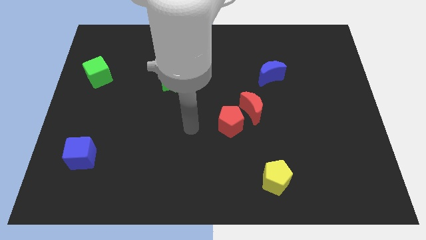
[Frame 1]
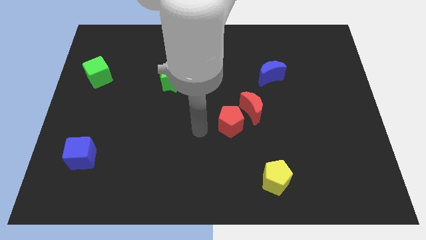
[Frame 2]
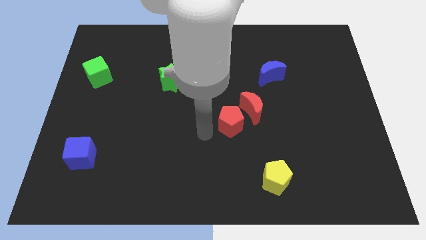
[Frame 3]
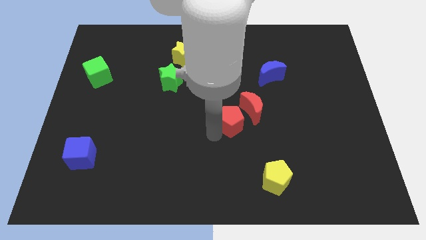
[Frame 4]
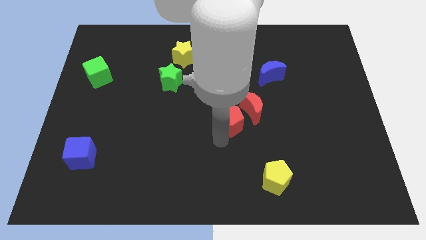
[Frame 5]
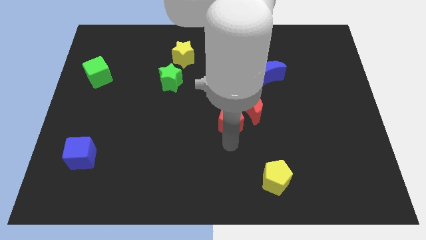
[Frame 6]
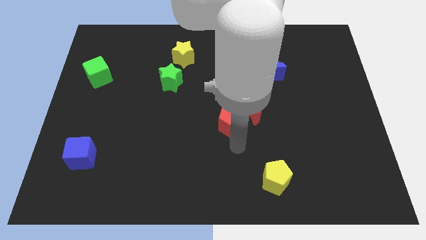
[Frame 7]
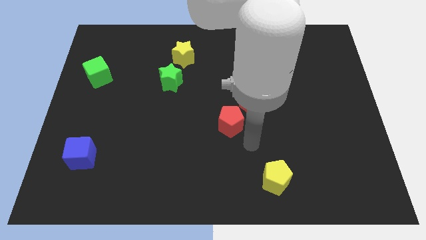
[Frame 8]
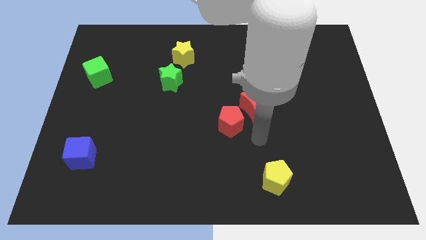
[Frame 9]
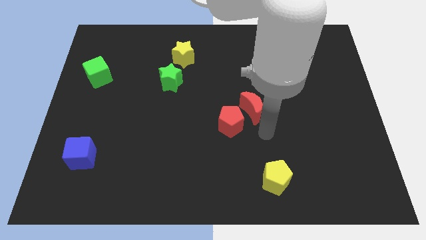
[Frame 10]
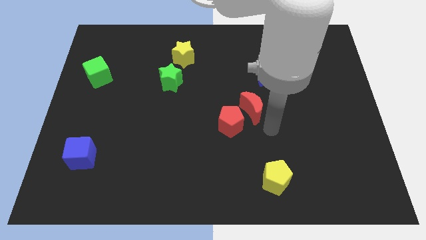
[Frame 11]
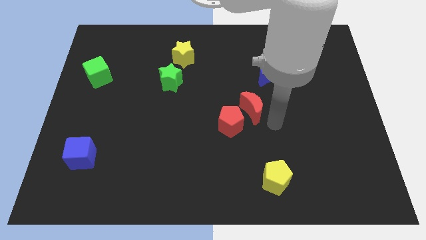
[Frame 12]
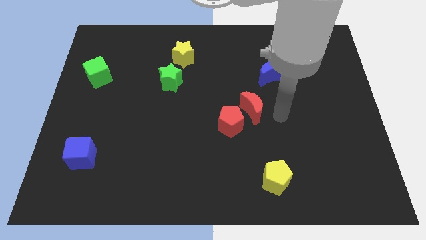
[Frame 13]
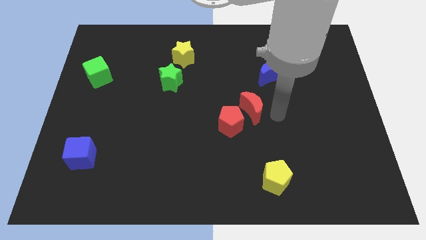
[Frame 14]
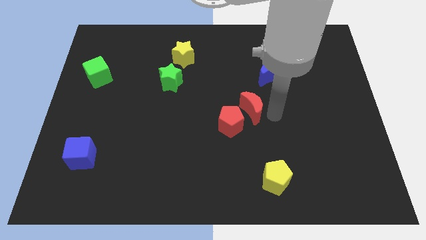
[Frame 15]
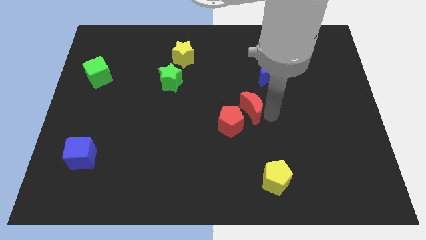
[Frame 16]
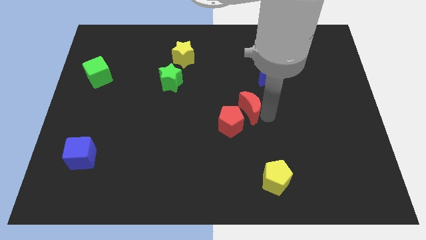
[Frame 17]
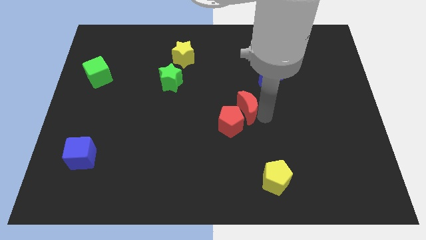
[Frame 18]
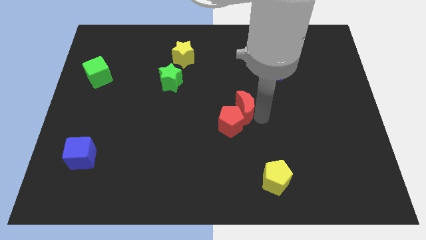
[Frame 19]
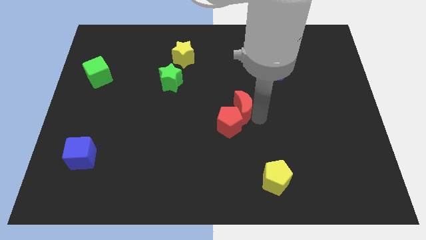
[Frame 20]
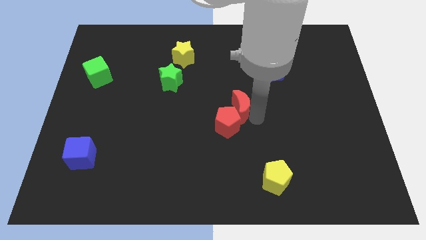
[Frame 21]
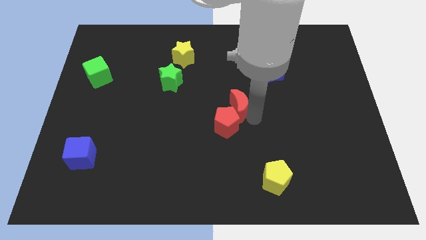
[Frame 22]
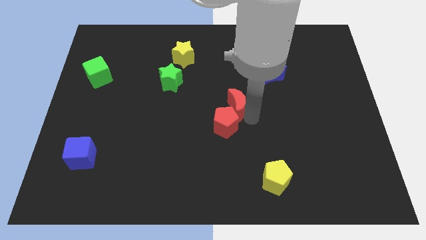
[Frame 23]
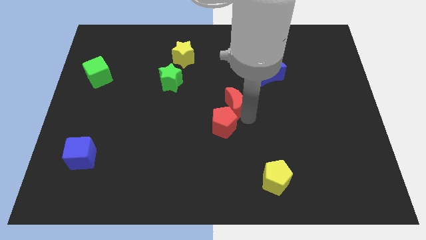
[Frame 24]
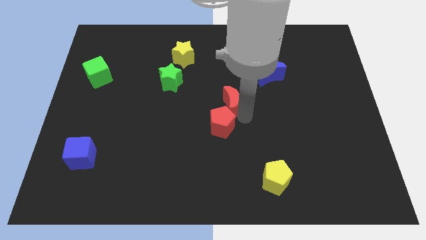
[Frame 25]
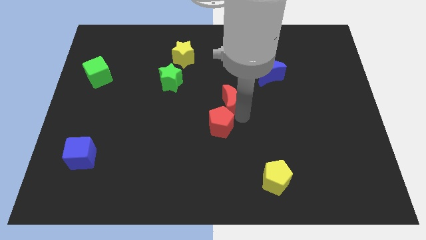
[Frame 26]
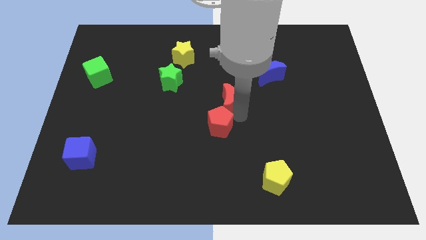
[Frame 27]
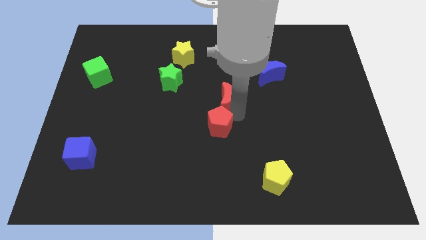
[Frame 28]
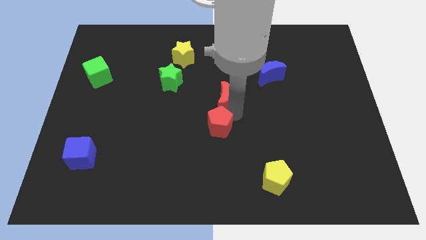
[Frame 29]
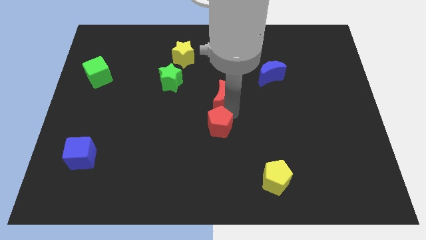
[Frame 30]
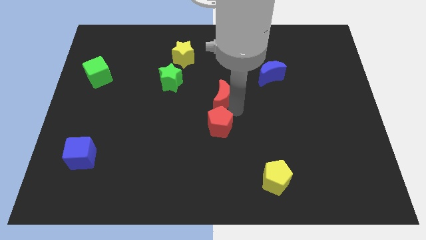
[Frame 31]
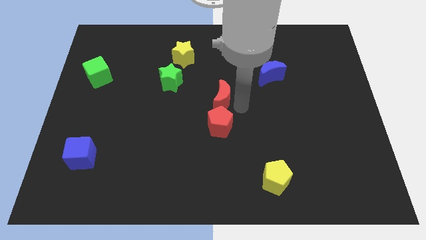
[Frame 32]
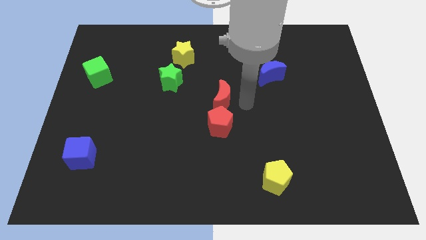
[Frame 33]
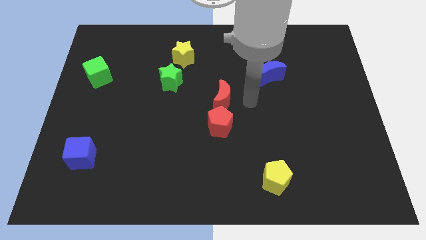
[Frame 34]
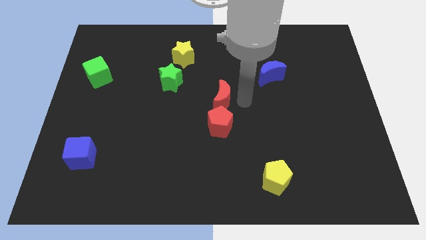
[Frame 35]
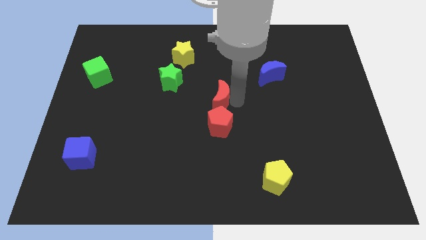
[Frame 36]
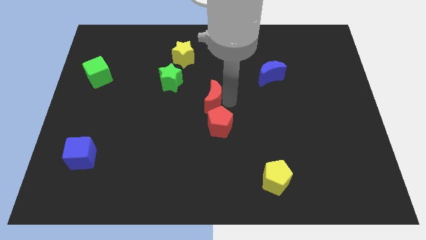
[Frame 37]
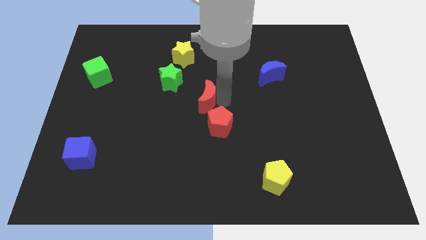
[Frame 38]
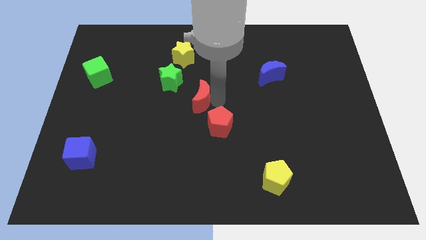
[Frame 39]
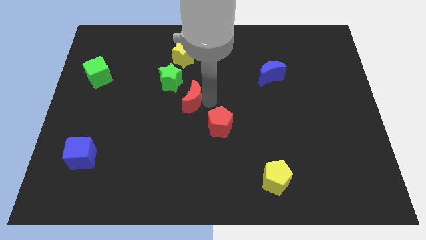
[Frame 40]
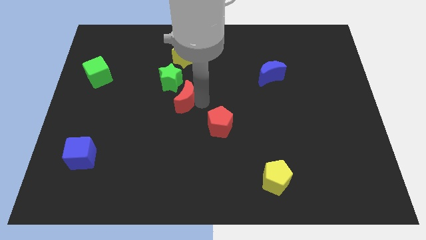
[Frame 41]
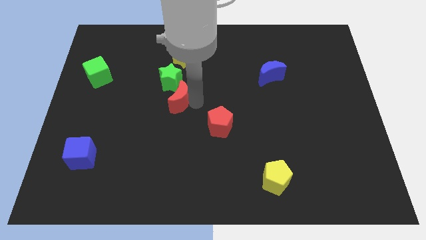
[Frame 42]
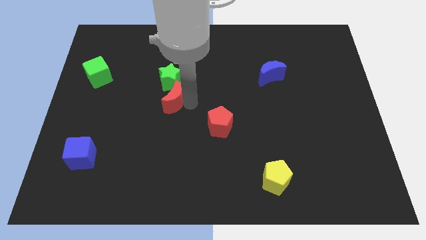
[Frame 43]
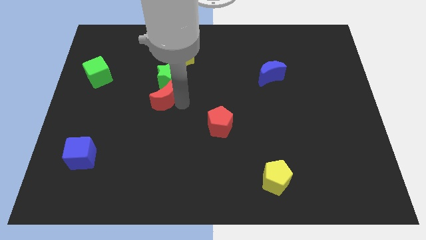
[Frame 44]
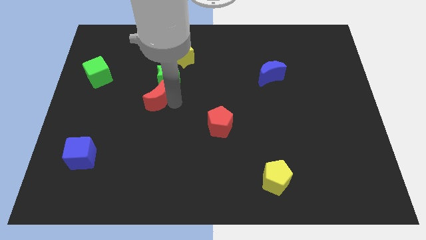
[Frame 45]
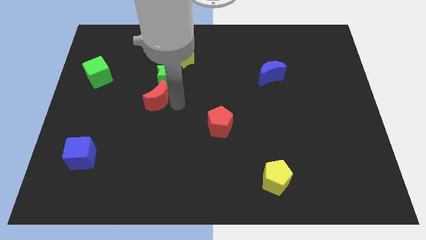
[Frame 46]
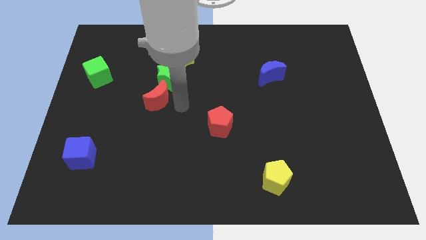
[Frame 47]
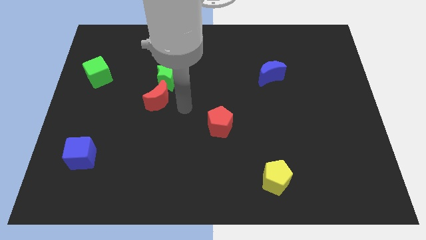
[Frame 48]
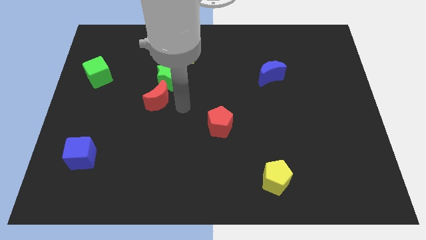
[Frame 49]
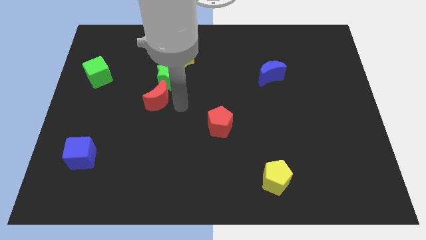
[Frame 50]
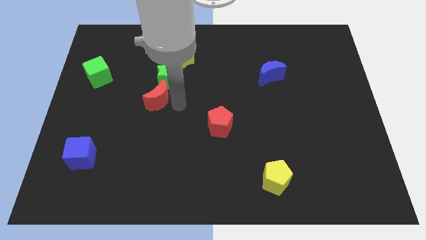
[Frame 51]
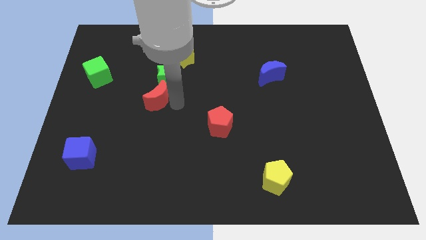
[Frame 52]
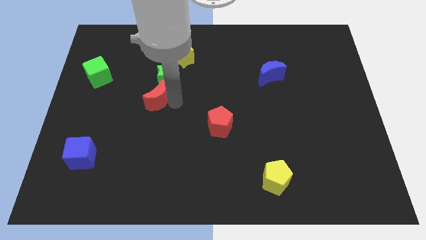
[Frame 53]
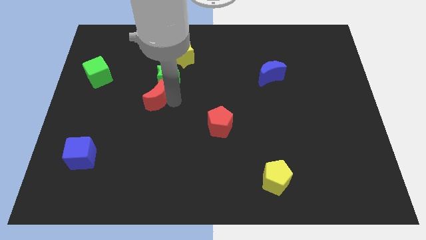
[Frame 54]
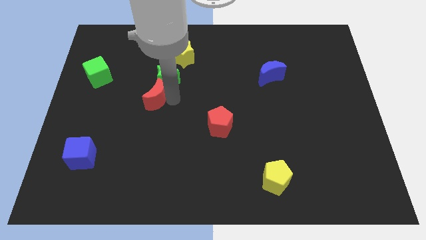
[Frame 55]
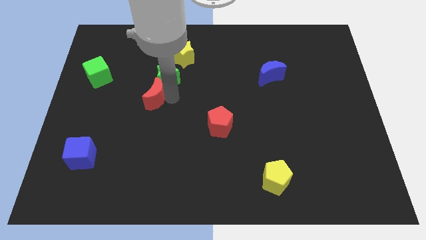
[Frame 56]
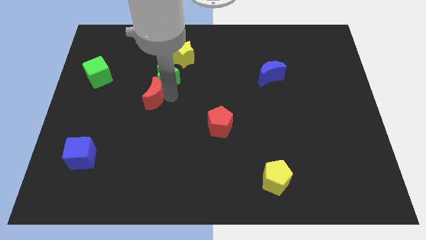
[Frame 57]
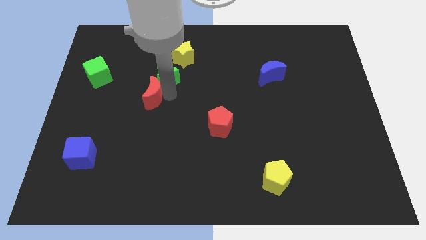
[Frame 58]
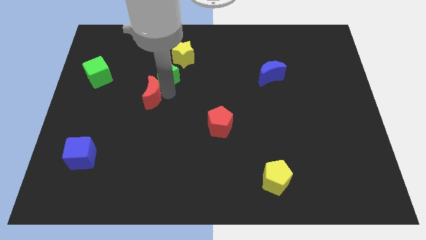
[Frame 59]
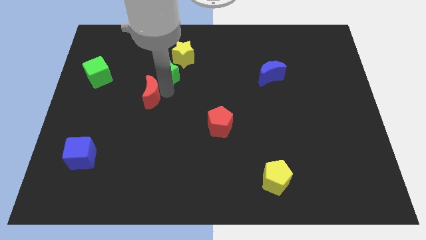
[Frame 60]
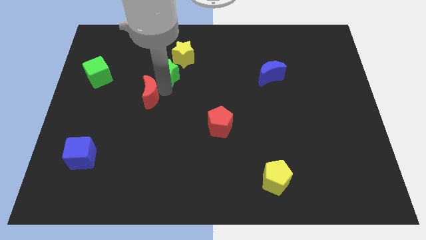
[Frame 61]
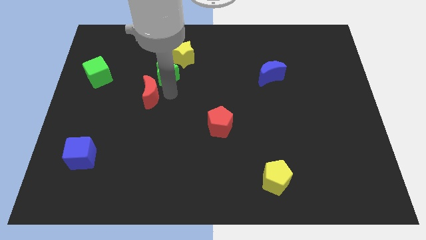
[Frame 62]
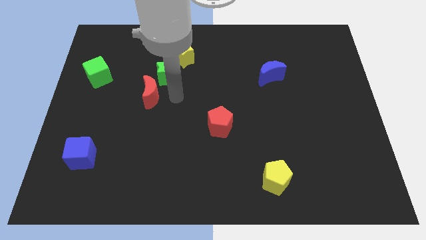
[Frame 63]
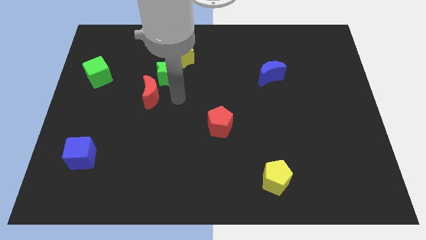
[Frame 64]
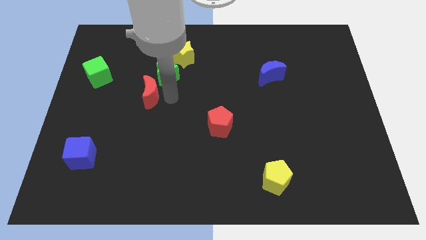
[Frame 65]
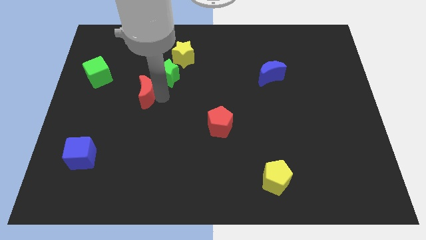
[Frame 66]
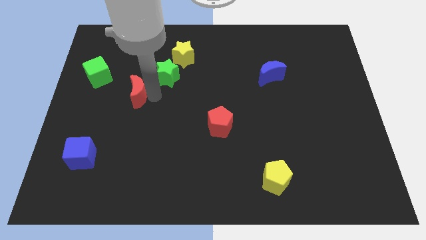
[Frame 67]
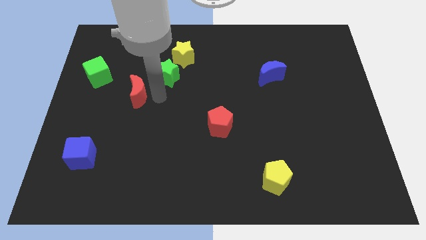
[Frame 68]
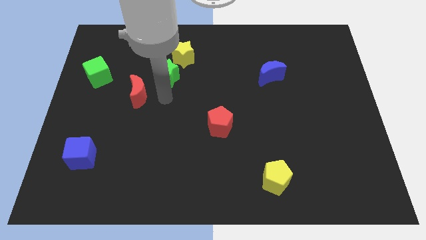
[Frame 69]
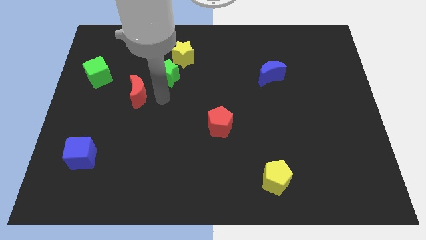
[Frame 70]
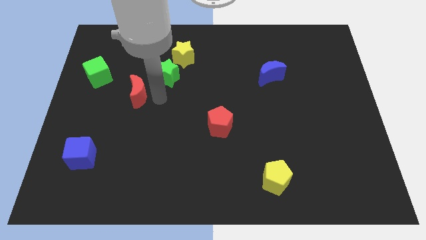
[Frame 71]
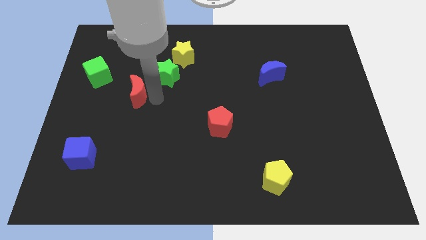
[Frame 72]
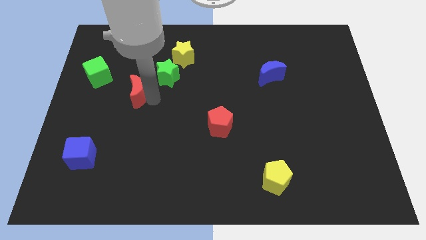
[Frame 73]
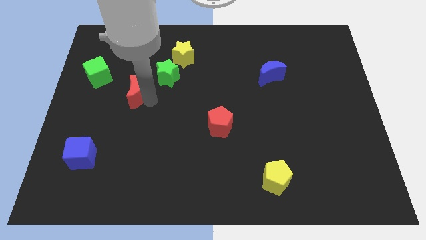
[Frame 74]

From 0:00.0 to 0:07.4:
put the red moon diagonally down and to the right of the green cube
